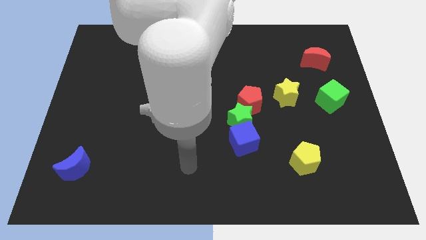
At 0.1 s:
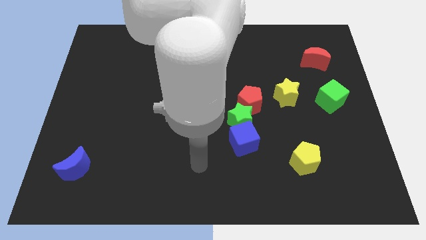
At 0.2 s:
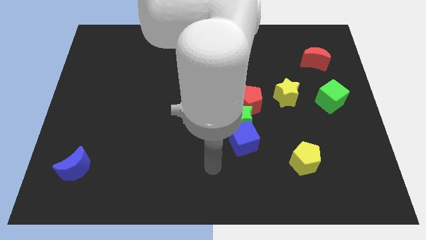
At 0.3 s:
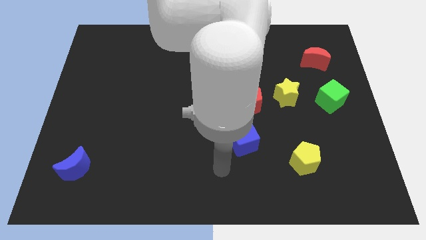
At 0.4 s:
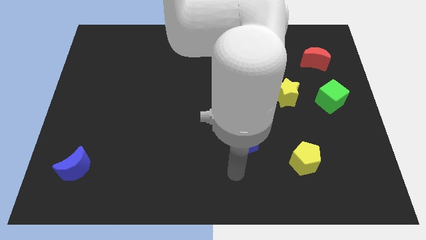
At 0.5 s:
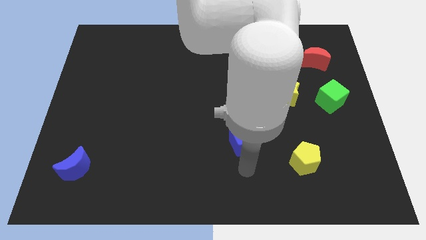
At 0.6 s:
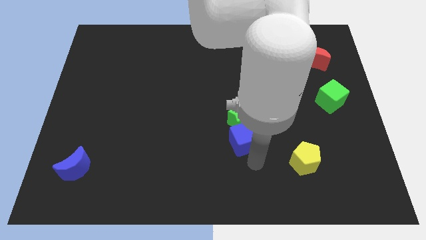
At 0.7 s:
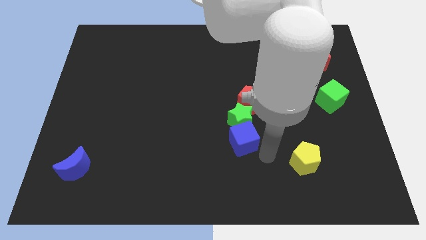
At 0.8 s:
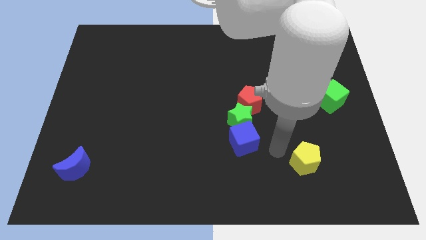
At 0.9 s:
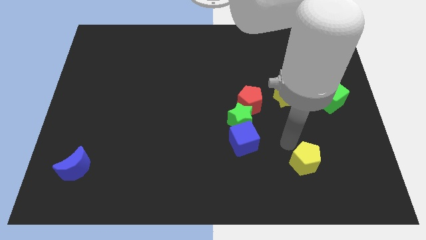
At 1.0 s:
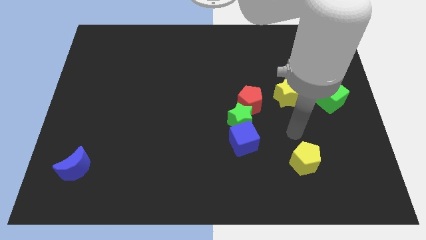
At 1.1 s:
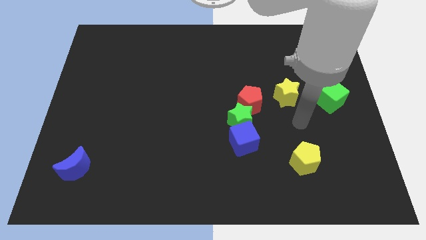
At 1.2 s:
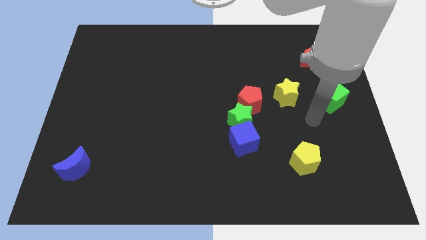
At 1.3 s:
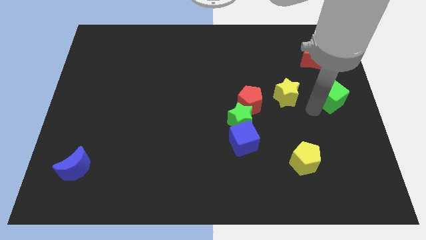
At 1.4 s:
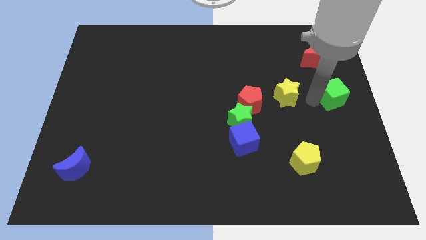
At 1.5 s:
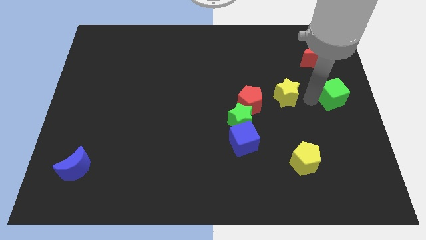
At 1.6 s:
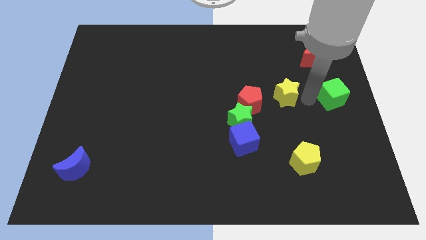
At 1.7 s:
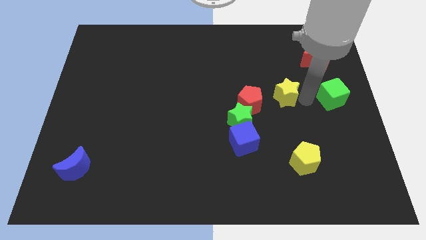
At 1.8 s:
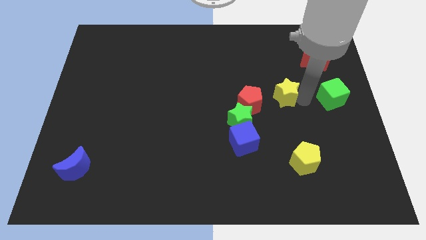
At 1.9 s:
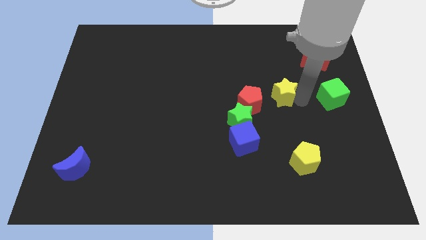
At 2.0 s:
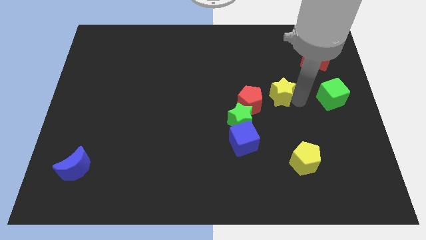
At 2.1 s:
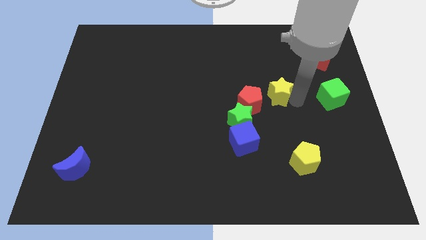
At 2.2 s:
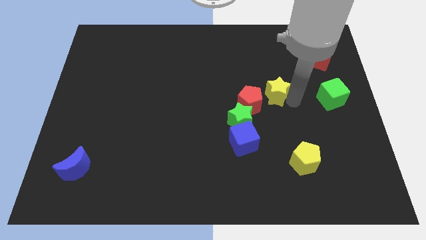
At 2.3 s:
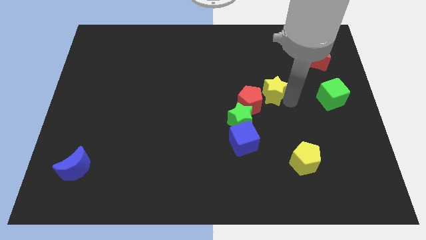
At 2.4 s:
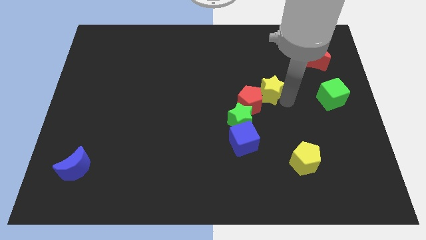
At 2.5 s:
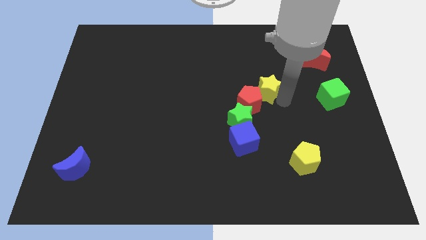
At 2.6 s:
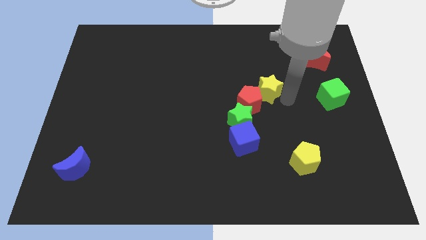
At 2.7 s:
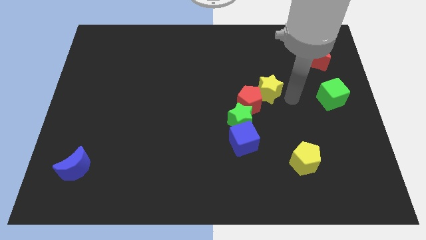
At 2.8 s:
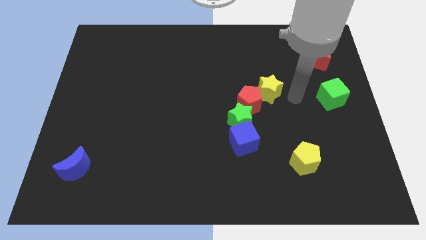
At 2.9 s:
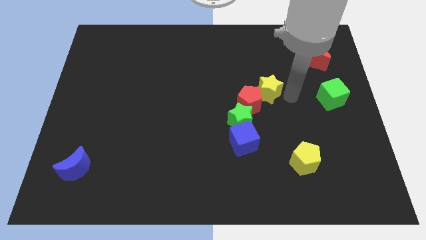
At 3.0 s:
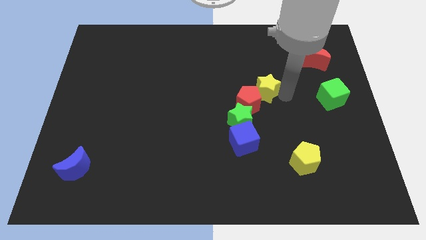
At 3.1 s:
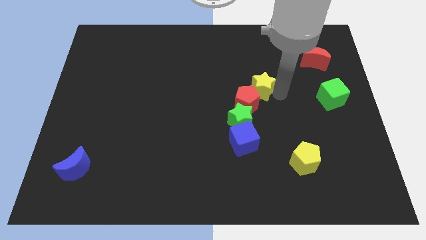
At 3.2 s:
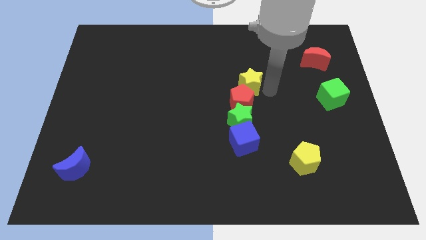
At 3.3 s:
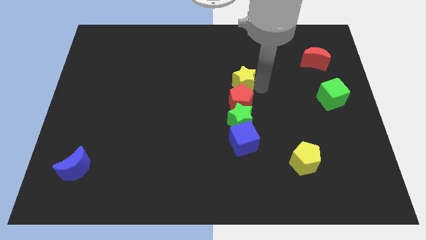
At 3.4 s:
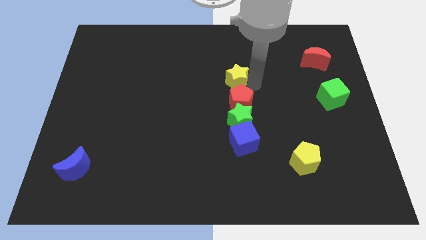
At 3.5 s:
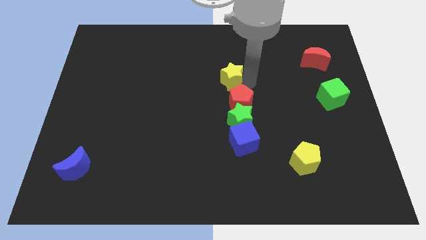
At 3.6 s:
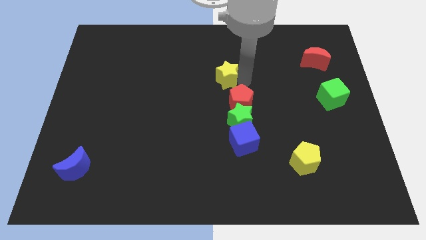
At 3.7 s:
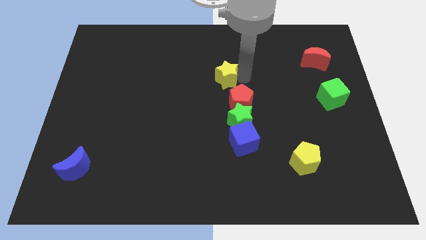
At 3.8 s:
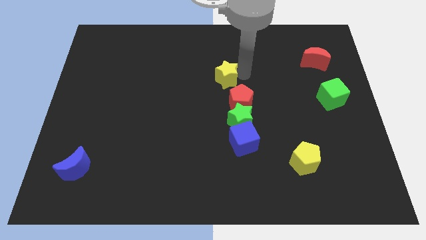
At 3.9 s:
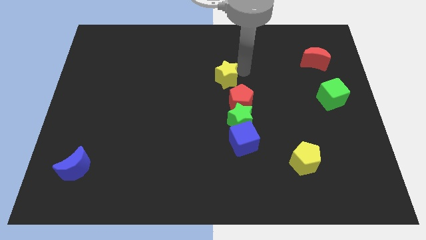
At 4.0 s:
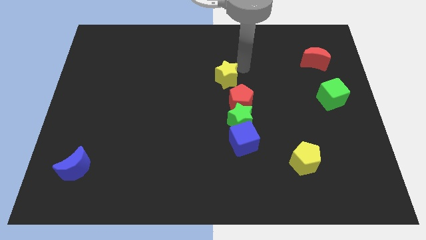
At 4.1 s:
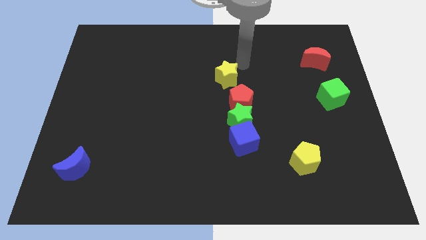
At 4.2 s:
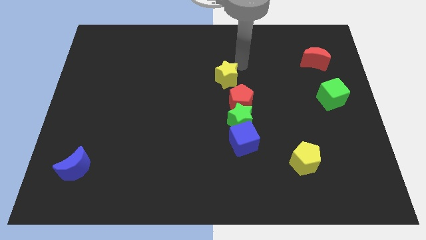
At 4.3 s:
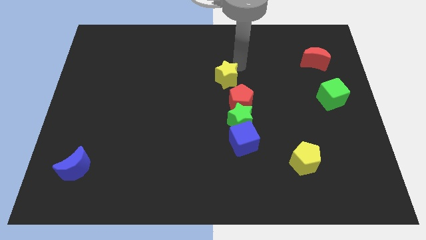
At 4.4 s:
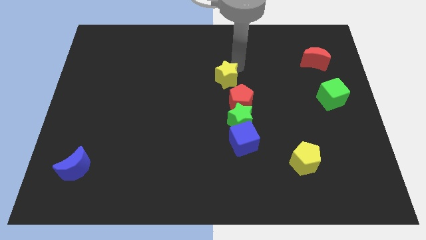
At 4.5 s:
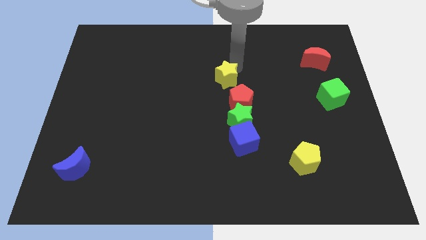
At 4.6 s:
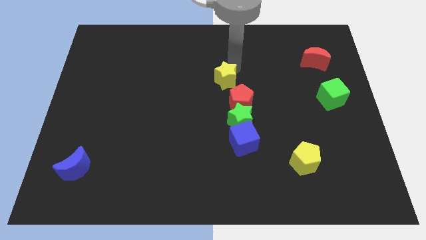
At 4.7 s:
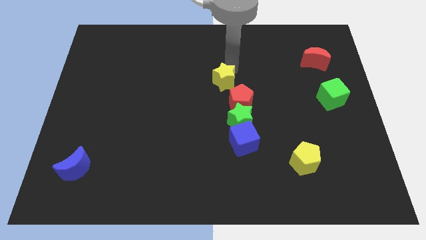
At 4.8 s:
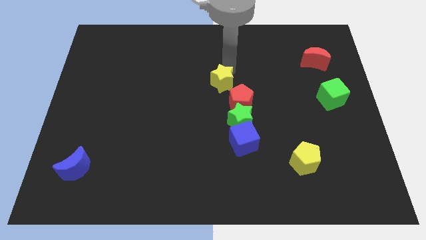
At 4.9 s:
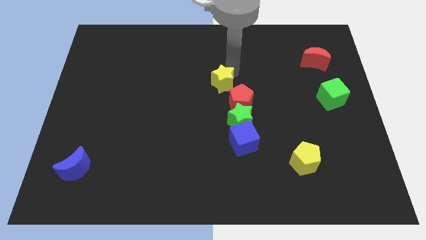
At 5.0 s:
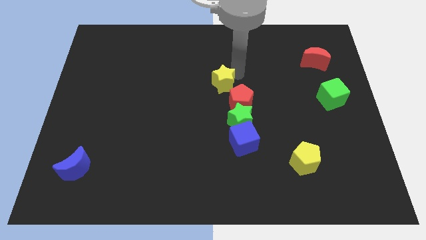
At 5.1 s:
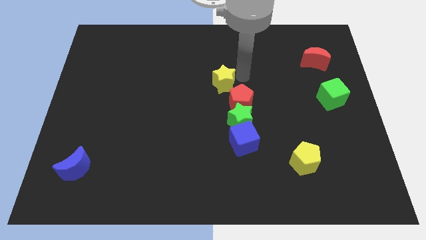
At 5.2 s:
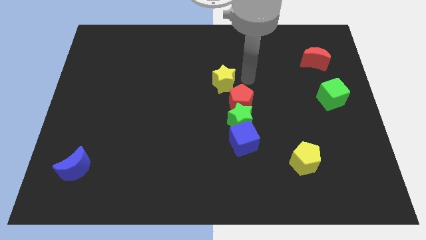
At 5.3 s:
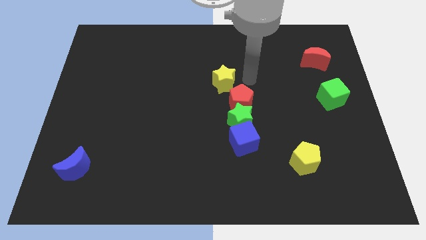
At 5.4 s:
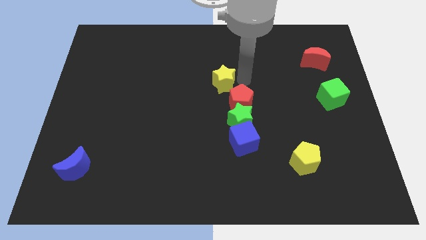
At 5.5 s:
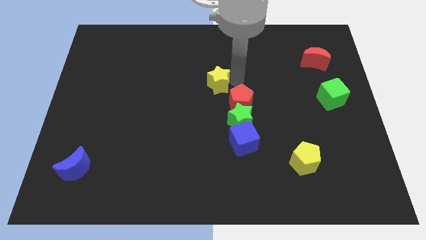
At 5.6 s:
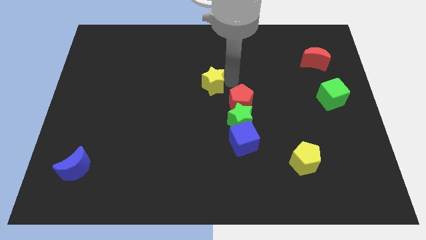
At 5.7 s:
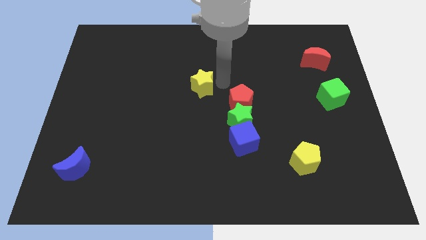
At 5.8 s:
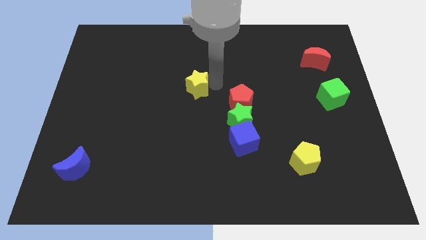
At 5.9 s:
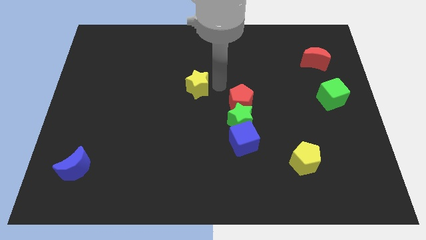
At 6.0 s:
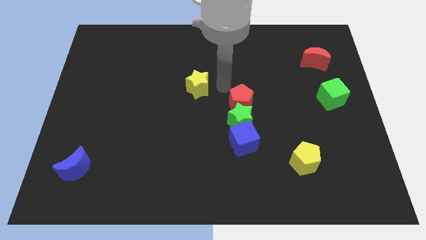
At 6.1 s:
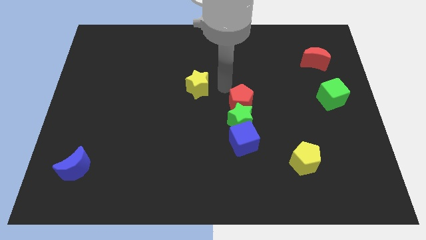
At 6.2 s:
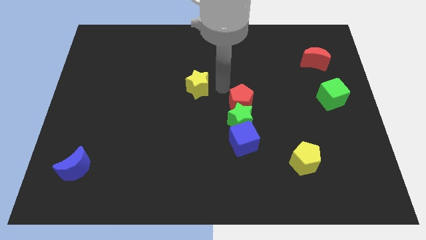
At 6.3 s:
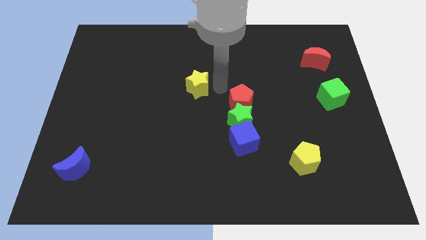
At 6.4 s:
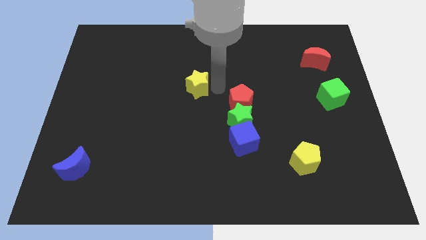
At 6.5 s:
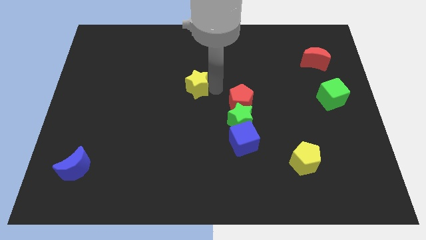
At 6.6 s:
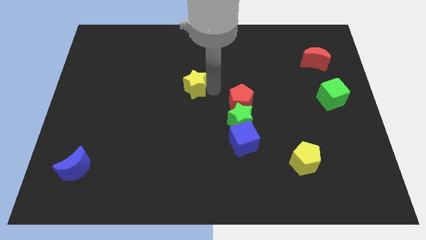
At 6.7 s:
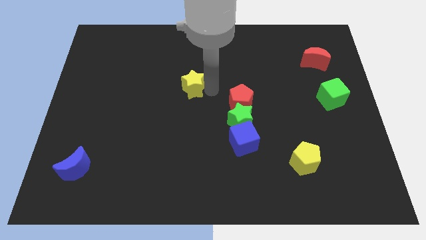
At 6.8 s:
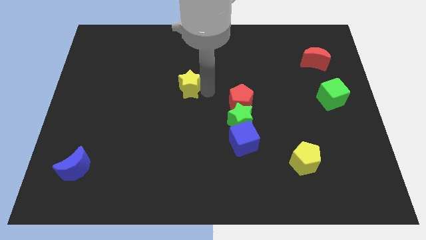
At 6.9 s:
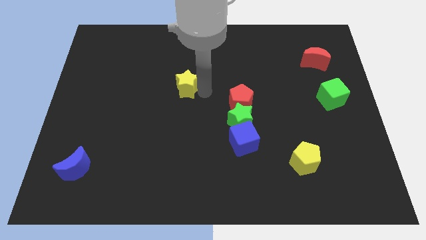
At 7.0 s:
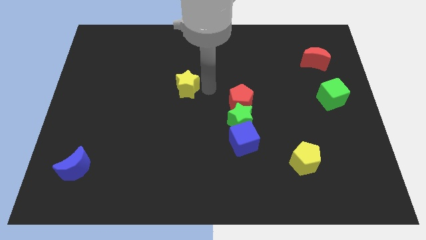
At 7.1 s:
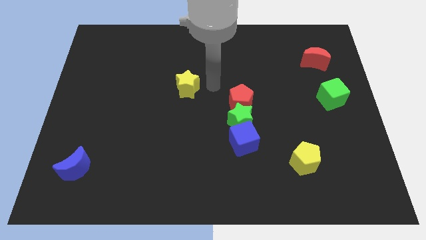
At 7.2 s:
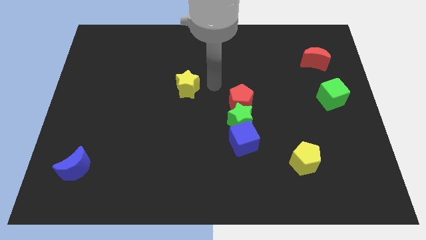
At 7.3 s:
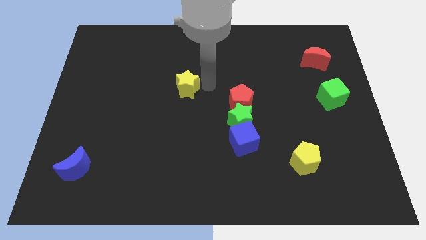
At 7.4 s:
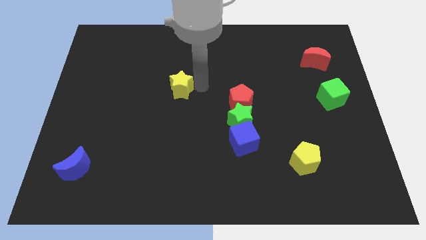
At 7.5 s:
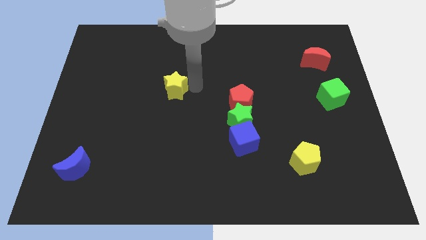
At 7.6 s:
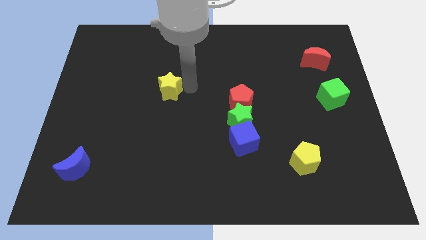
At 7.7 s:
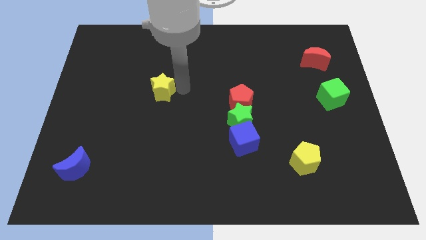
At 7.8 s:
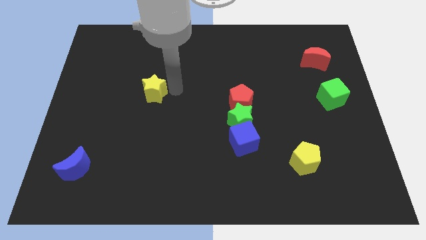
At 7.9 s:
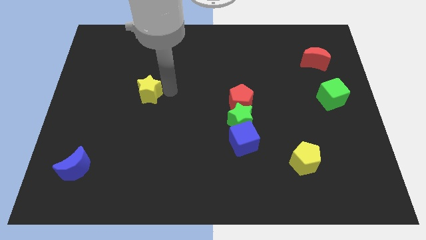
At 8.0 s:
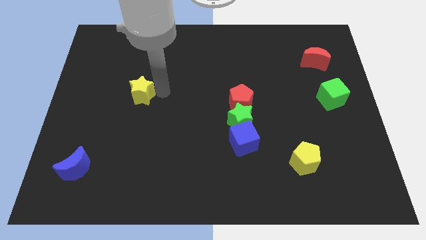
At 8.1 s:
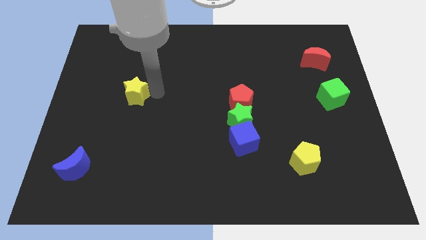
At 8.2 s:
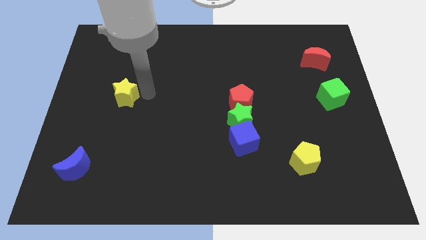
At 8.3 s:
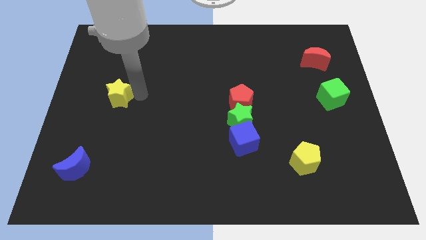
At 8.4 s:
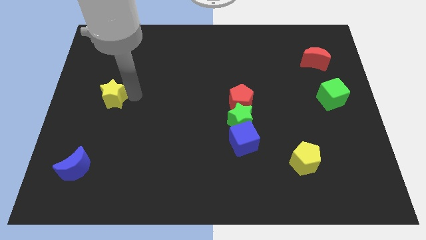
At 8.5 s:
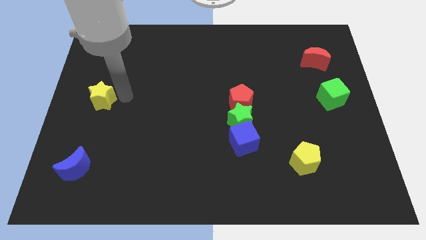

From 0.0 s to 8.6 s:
push the yellow star to the left side
